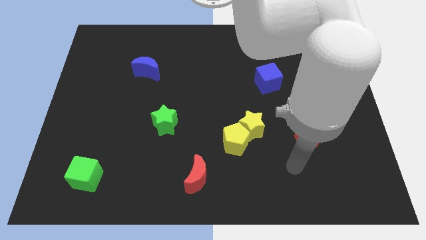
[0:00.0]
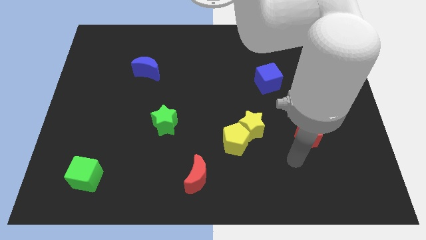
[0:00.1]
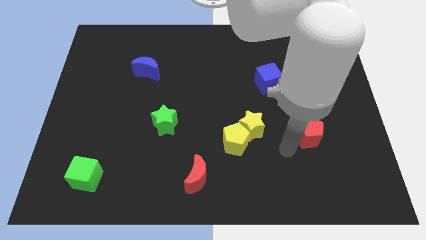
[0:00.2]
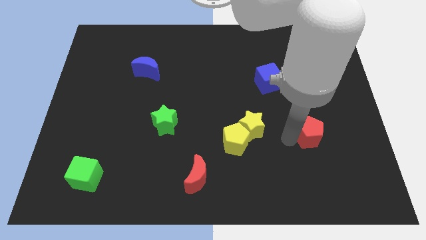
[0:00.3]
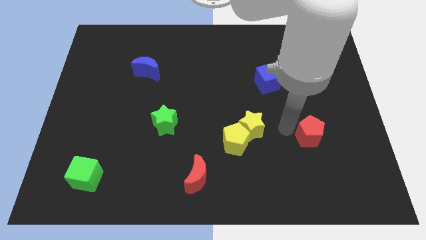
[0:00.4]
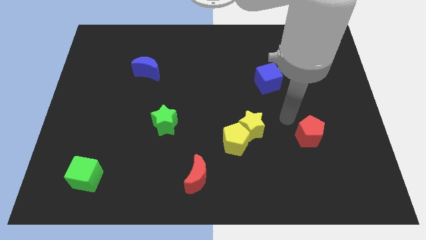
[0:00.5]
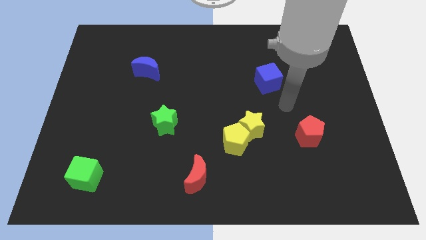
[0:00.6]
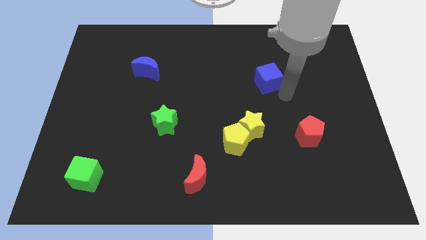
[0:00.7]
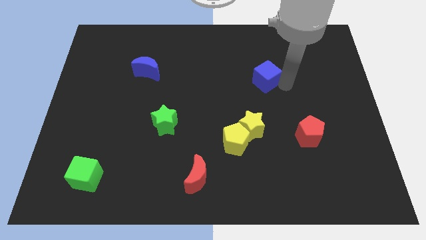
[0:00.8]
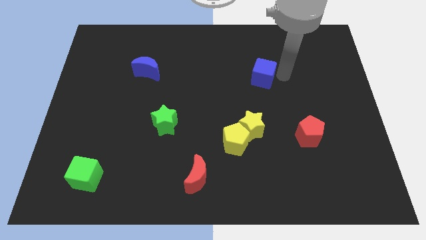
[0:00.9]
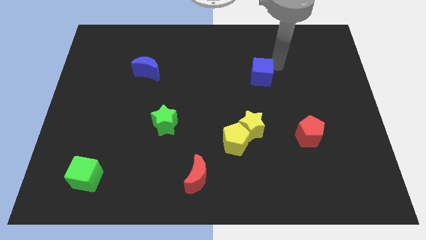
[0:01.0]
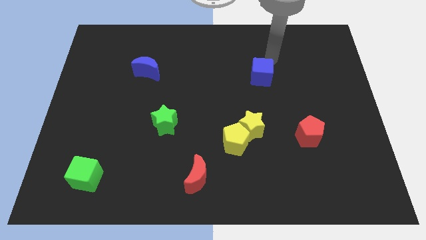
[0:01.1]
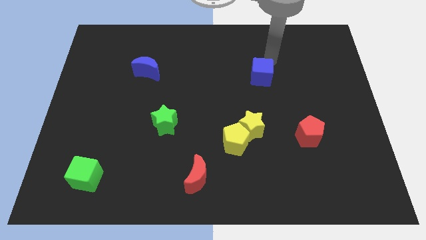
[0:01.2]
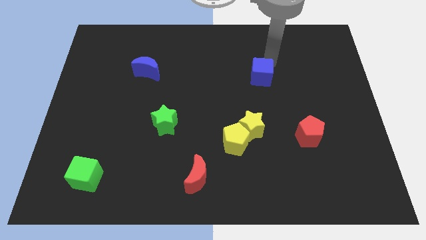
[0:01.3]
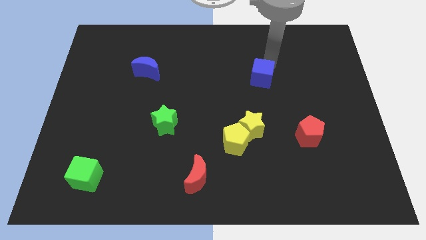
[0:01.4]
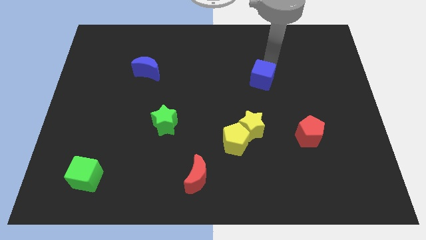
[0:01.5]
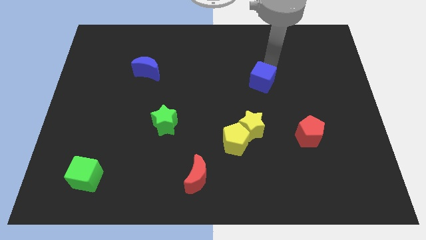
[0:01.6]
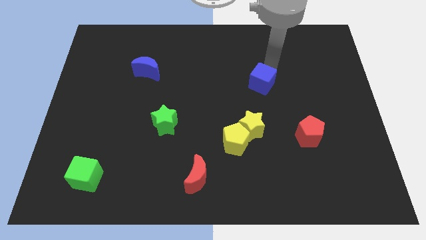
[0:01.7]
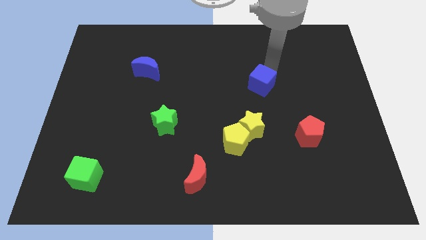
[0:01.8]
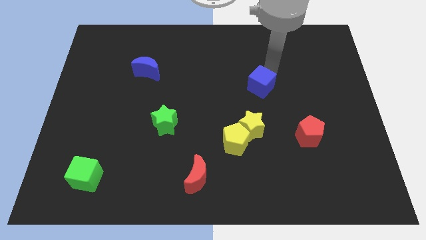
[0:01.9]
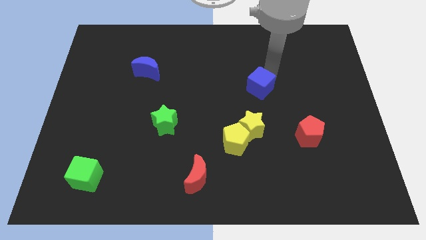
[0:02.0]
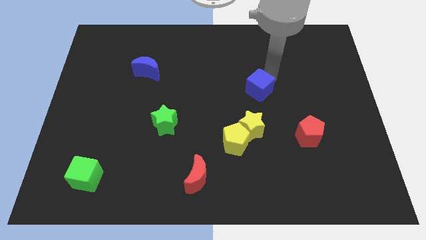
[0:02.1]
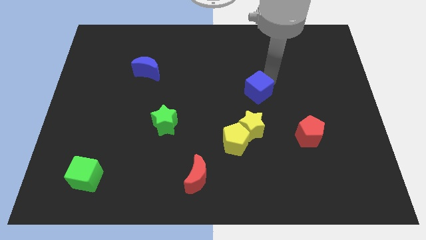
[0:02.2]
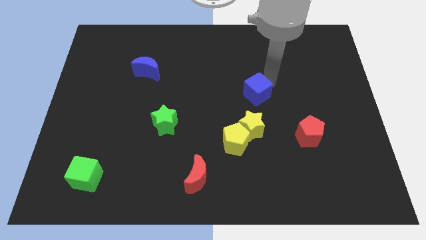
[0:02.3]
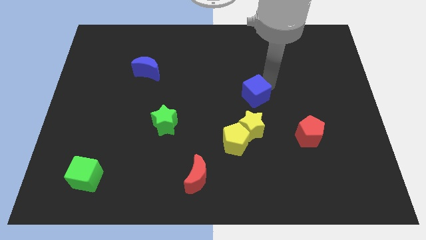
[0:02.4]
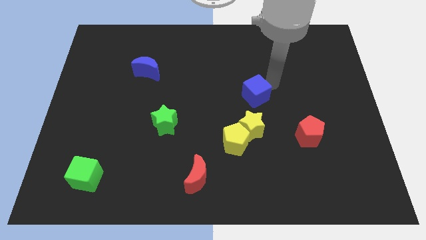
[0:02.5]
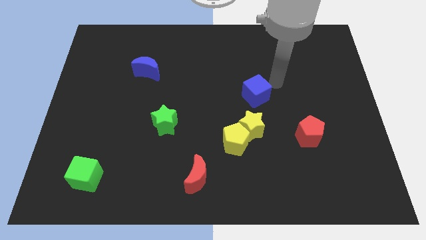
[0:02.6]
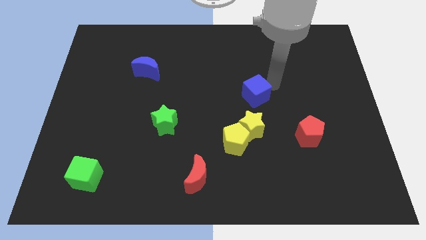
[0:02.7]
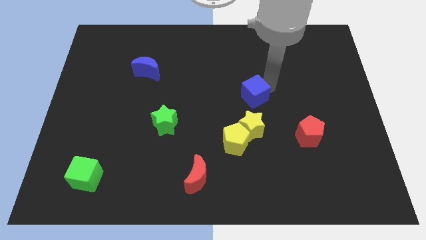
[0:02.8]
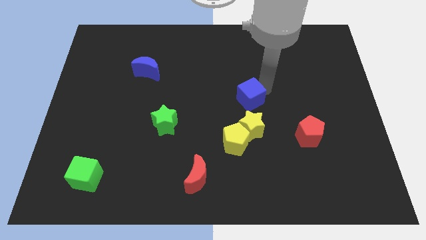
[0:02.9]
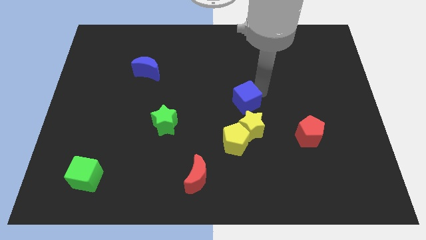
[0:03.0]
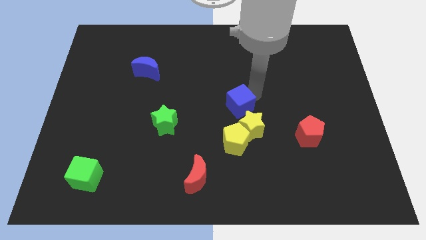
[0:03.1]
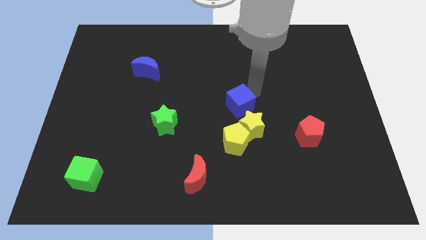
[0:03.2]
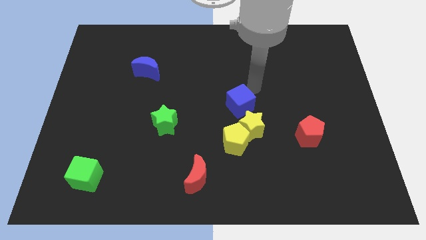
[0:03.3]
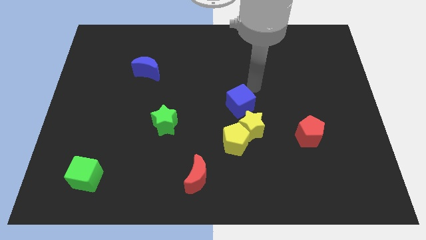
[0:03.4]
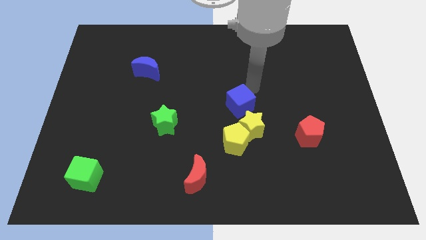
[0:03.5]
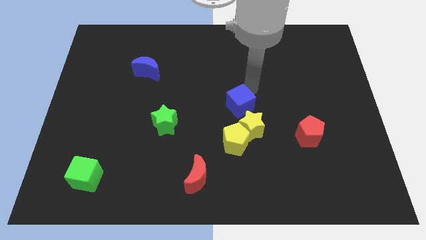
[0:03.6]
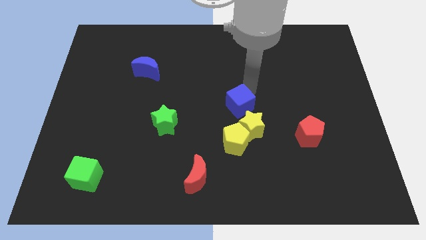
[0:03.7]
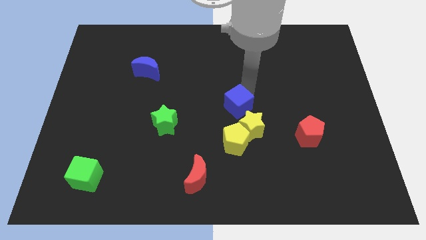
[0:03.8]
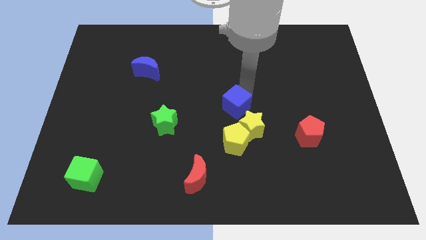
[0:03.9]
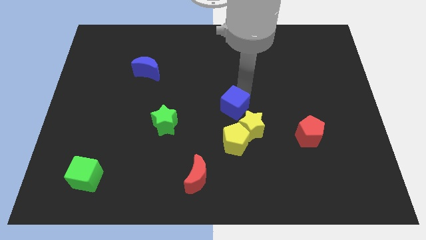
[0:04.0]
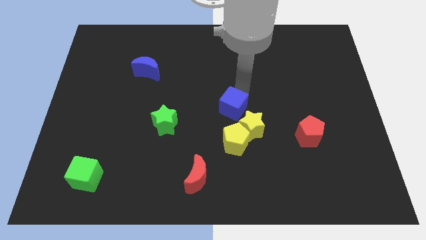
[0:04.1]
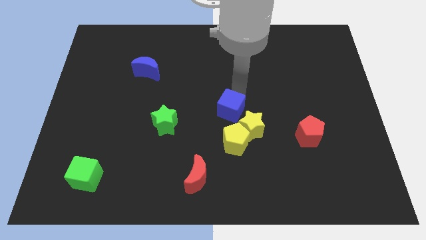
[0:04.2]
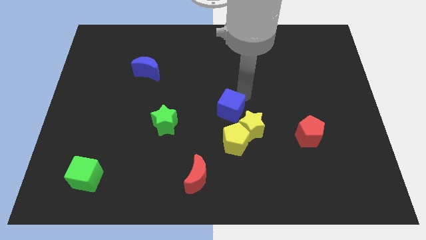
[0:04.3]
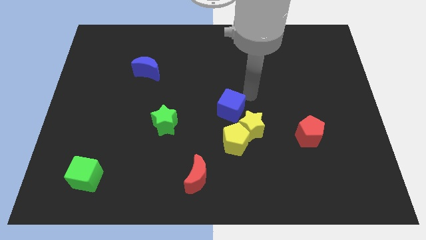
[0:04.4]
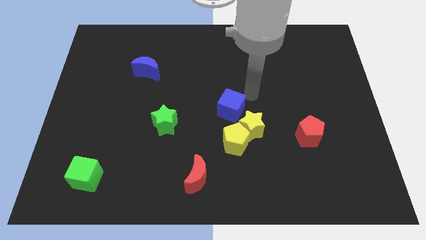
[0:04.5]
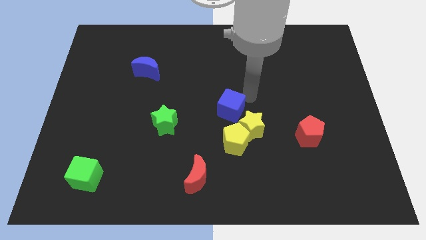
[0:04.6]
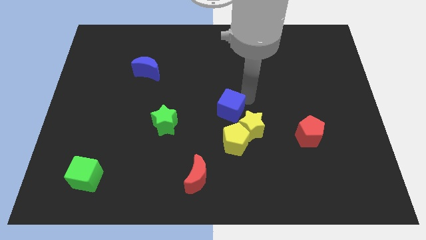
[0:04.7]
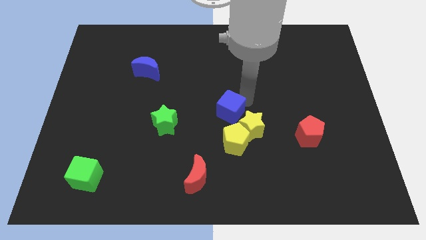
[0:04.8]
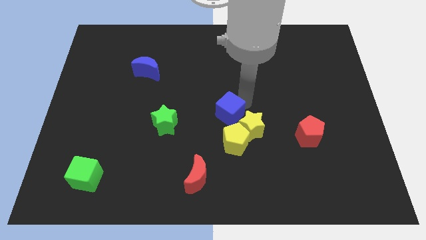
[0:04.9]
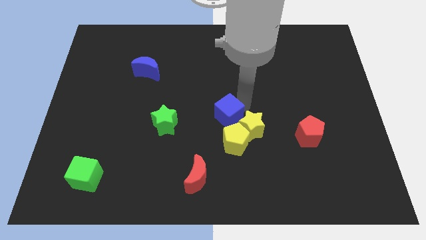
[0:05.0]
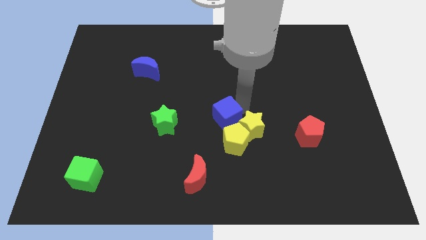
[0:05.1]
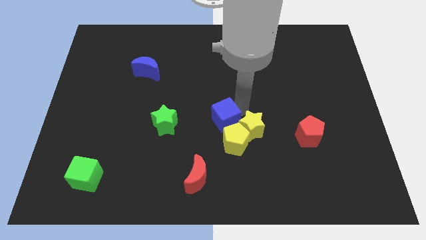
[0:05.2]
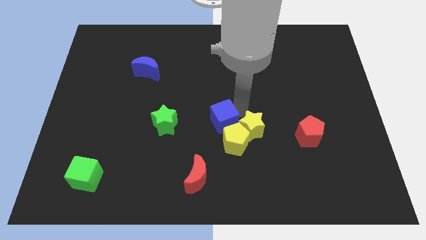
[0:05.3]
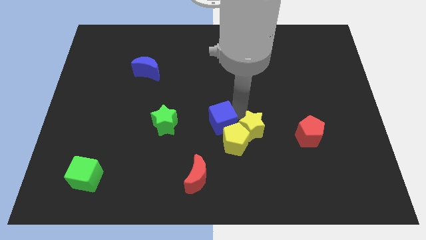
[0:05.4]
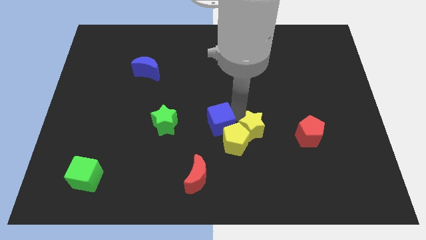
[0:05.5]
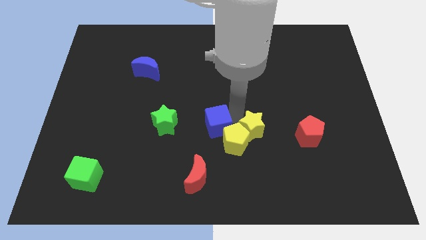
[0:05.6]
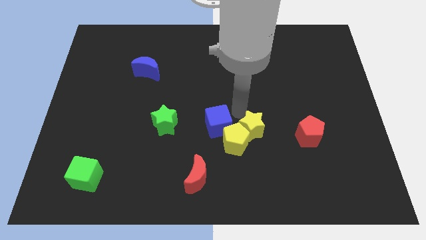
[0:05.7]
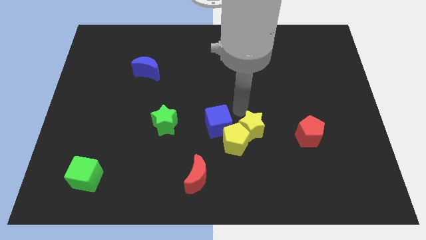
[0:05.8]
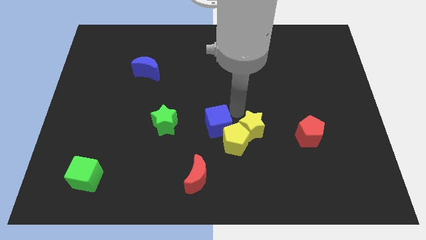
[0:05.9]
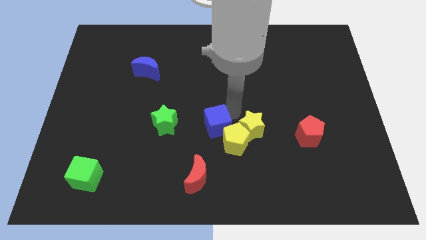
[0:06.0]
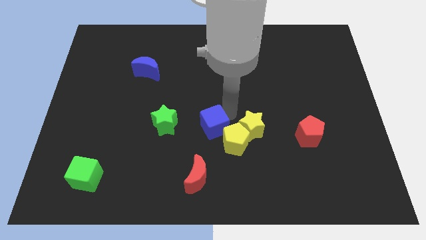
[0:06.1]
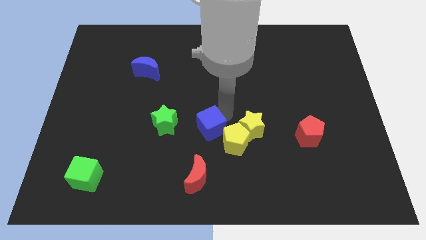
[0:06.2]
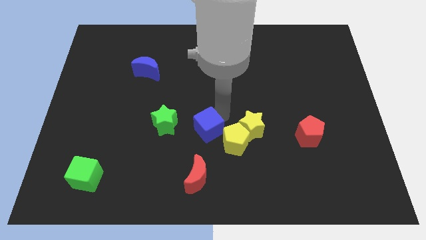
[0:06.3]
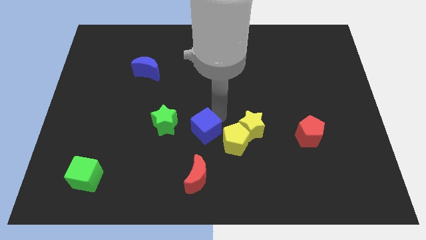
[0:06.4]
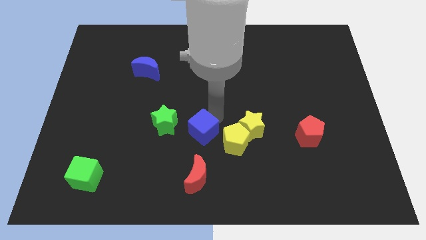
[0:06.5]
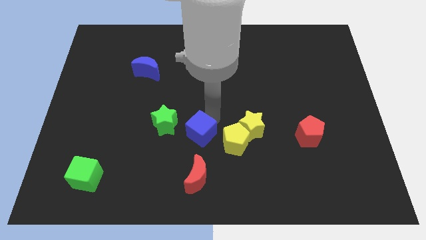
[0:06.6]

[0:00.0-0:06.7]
move the blue cube diagonally down and to the right of the green star

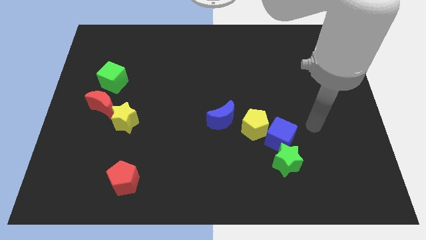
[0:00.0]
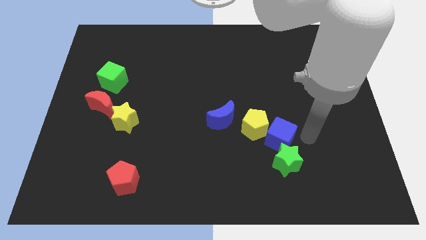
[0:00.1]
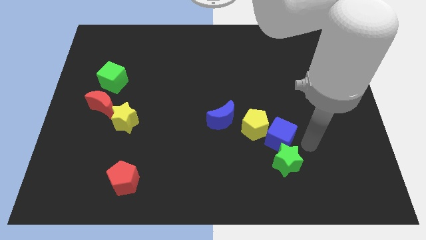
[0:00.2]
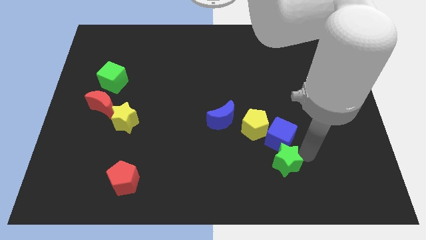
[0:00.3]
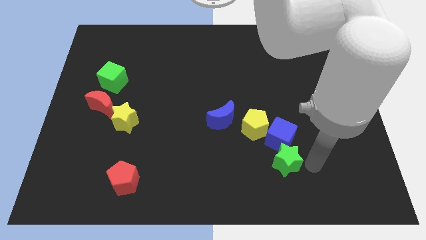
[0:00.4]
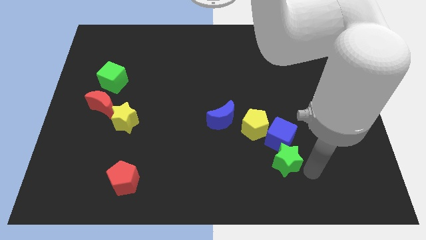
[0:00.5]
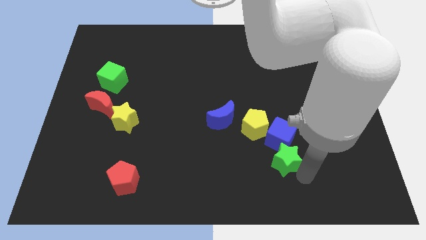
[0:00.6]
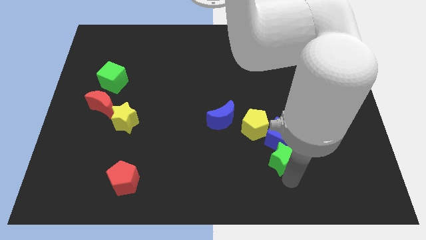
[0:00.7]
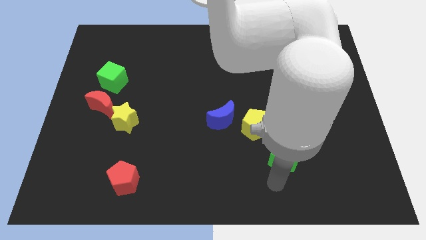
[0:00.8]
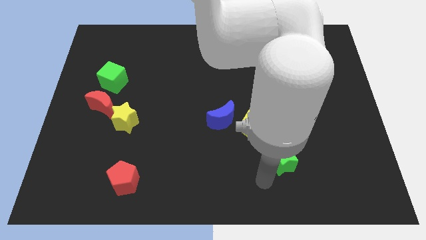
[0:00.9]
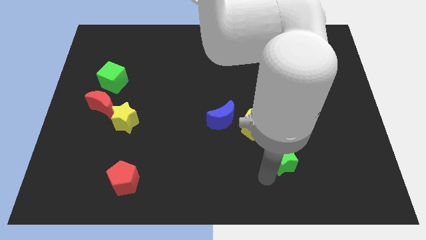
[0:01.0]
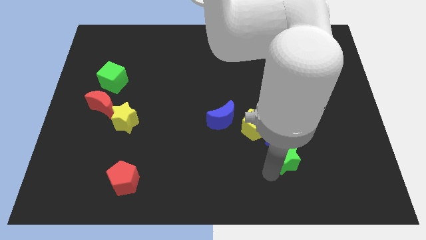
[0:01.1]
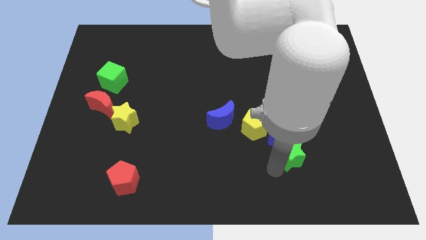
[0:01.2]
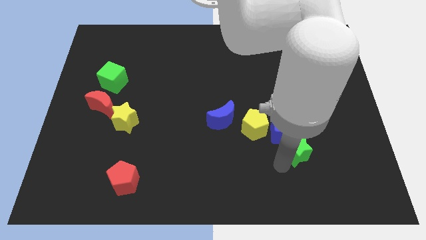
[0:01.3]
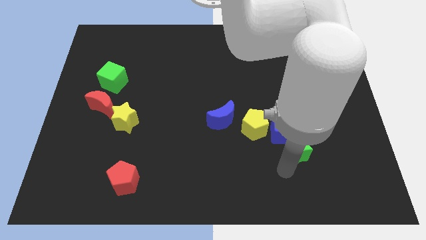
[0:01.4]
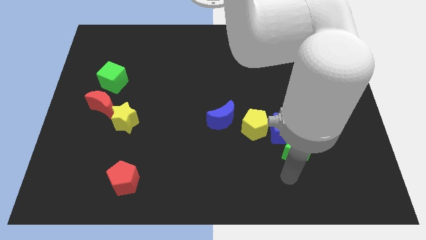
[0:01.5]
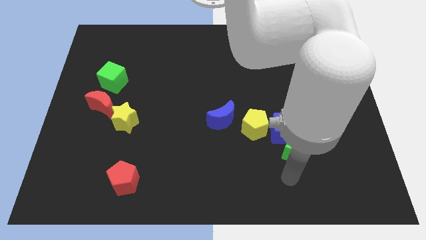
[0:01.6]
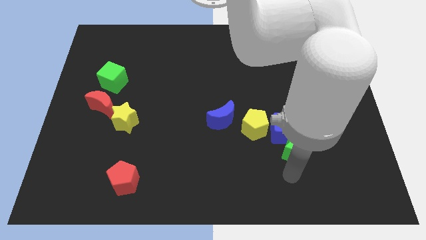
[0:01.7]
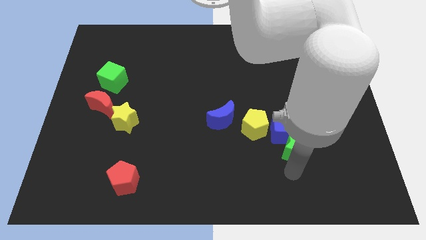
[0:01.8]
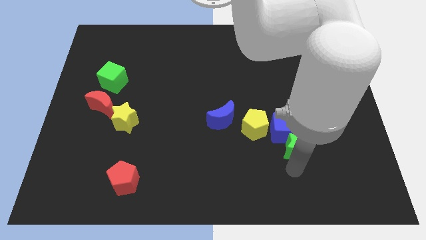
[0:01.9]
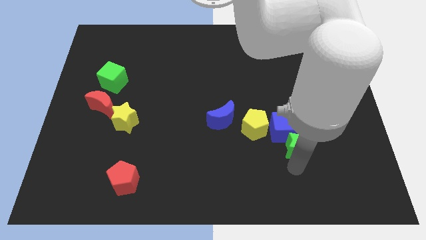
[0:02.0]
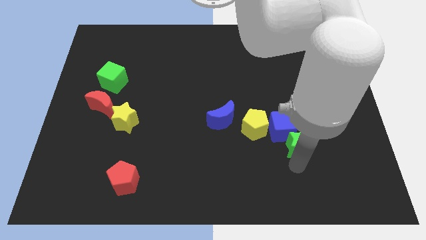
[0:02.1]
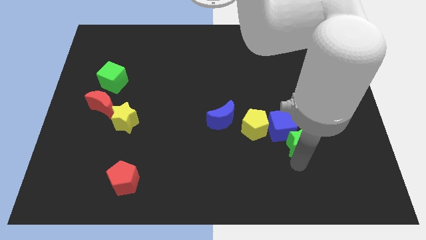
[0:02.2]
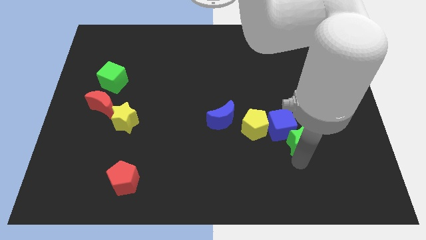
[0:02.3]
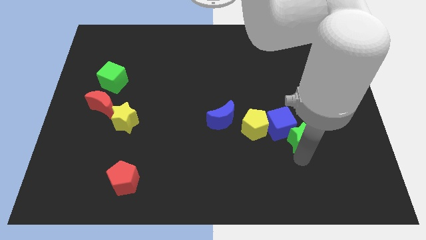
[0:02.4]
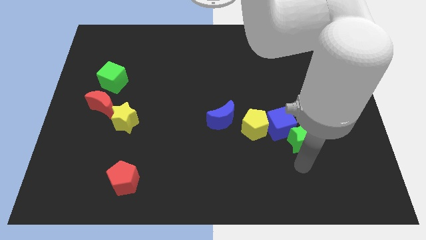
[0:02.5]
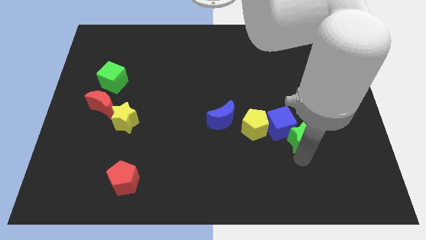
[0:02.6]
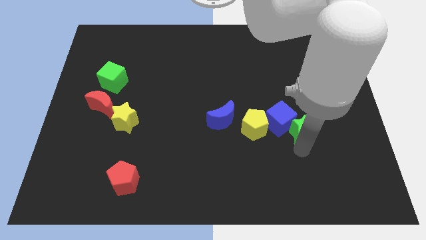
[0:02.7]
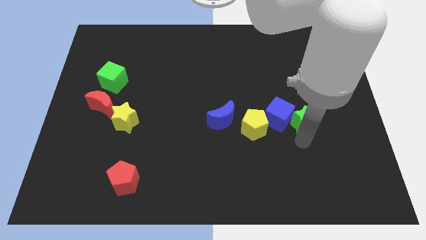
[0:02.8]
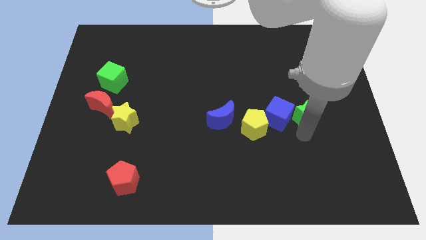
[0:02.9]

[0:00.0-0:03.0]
put the green star diagonally up and to the right of the blue cube
